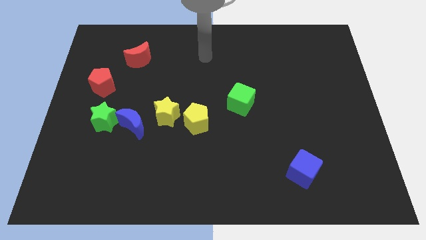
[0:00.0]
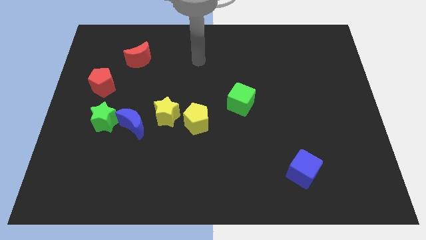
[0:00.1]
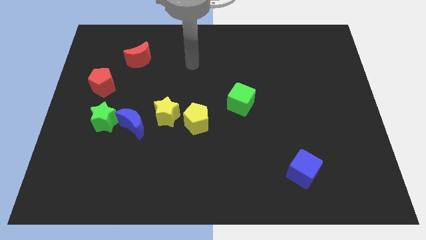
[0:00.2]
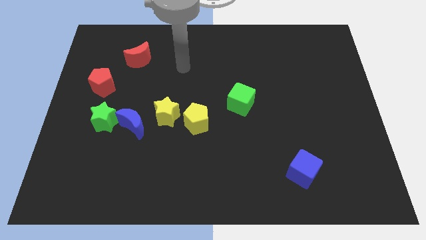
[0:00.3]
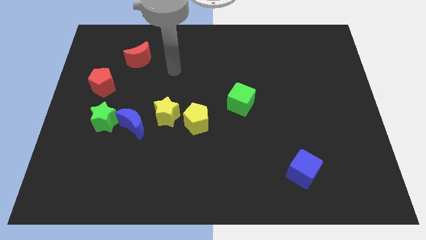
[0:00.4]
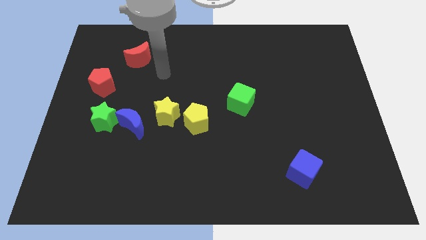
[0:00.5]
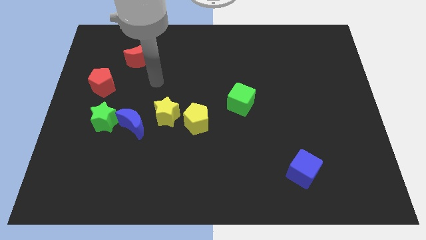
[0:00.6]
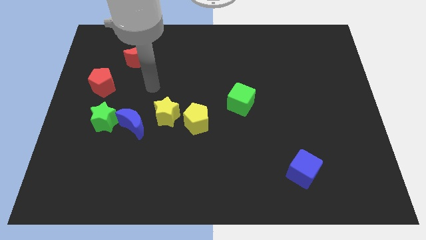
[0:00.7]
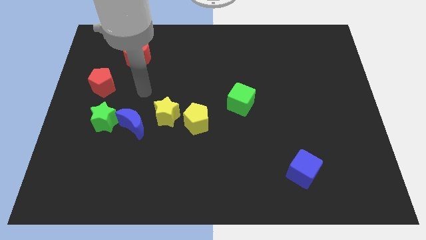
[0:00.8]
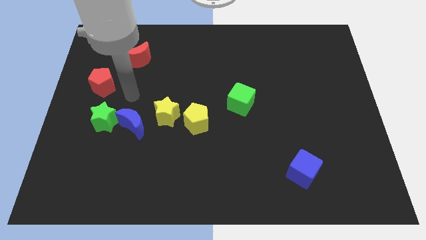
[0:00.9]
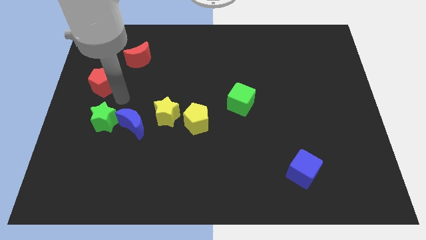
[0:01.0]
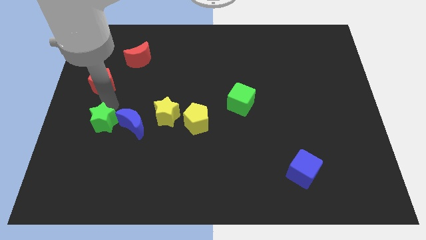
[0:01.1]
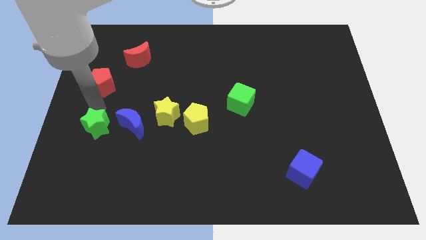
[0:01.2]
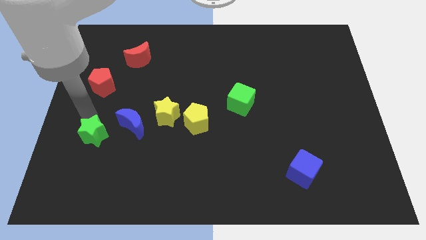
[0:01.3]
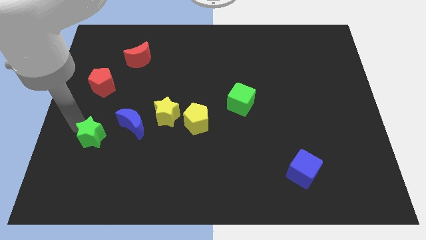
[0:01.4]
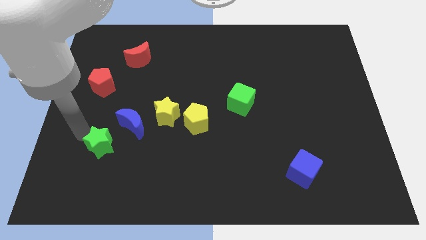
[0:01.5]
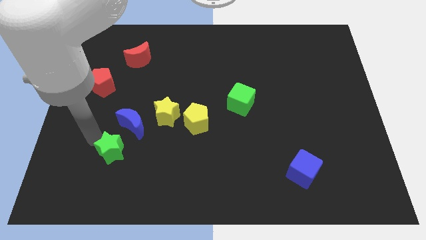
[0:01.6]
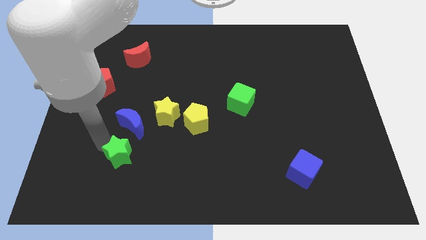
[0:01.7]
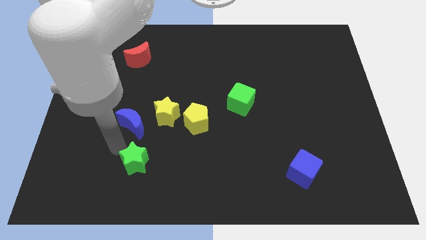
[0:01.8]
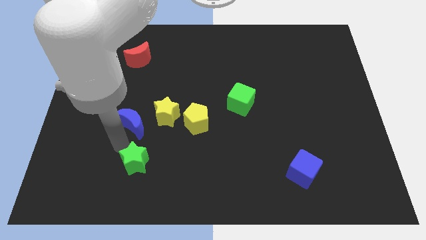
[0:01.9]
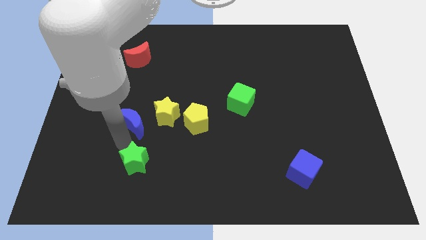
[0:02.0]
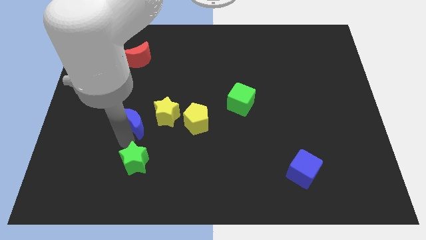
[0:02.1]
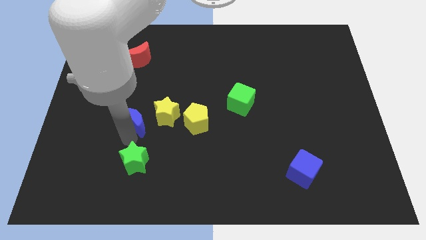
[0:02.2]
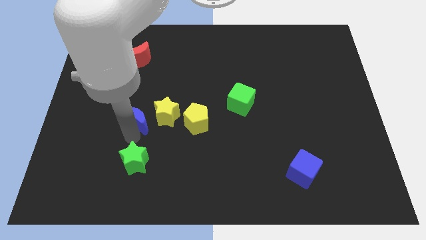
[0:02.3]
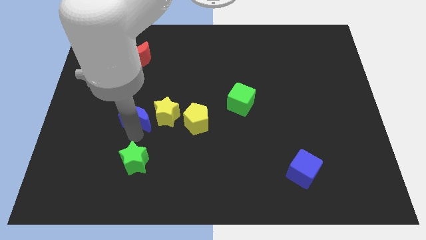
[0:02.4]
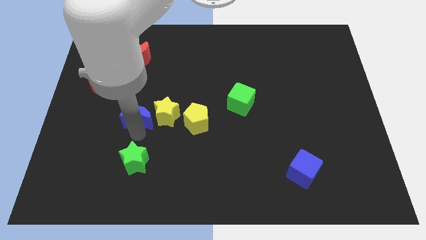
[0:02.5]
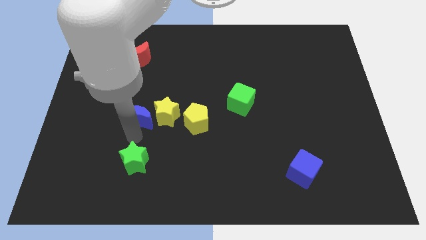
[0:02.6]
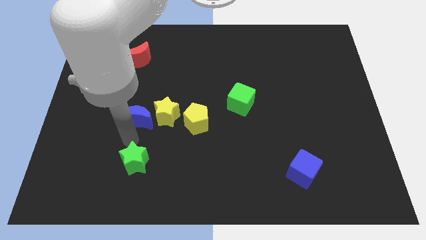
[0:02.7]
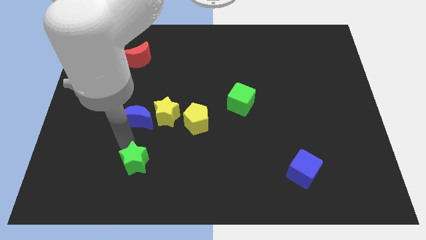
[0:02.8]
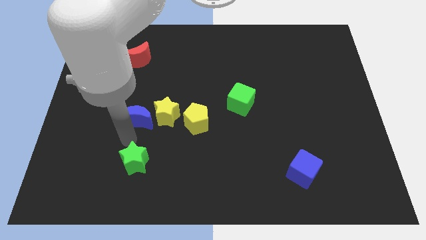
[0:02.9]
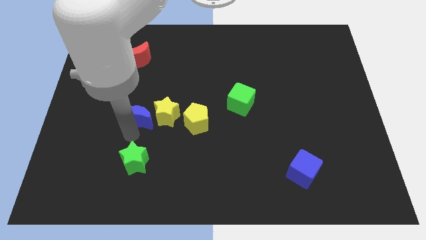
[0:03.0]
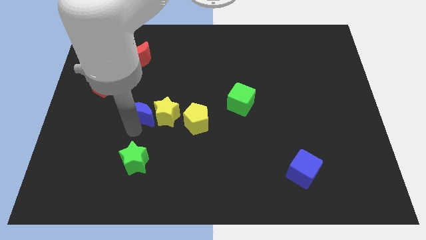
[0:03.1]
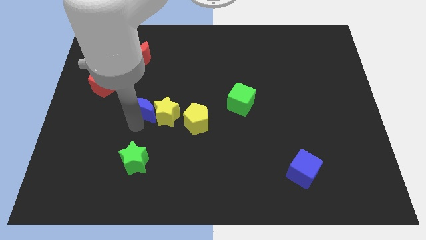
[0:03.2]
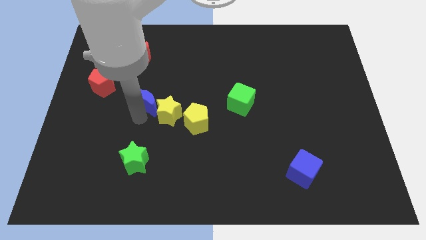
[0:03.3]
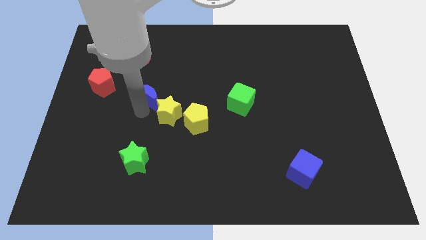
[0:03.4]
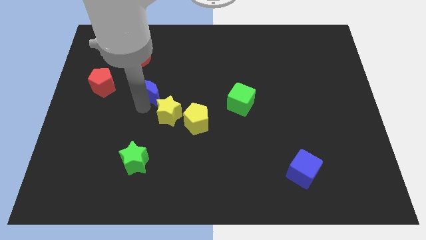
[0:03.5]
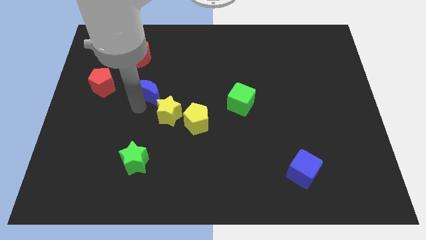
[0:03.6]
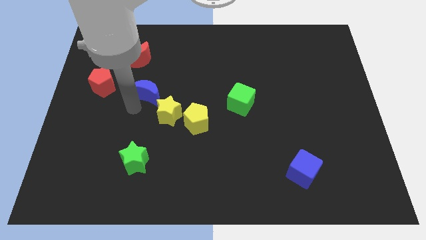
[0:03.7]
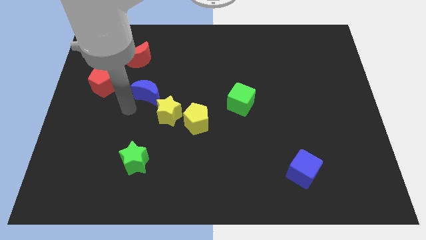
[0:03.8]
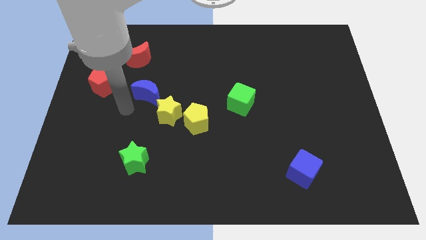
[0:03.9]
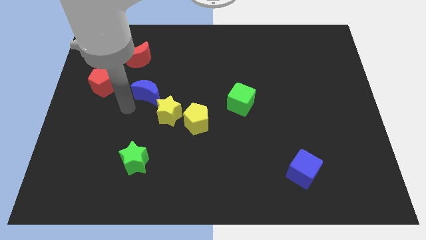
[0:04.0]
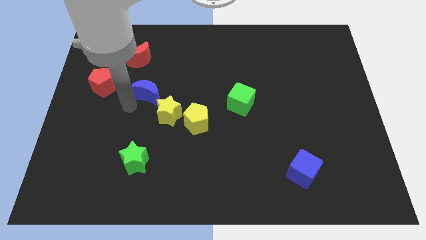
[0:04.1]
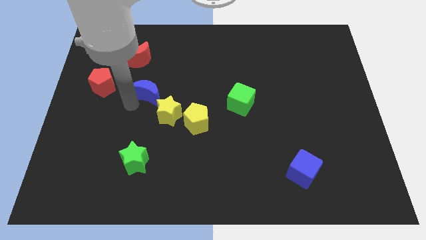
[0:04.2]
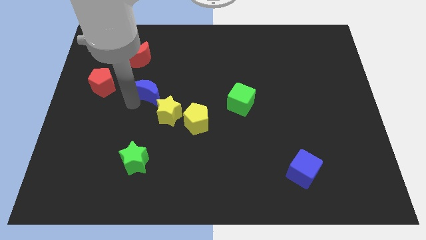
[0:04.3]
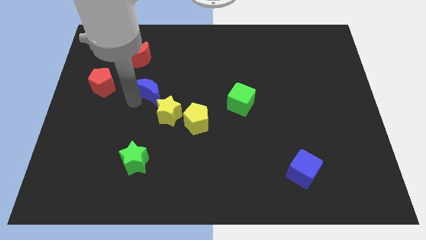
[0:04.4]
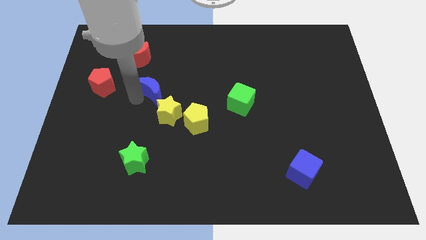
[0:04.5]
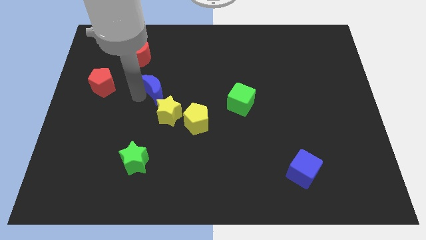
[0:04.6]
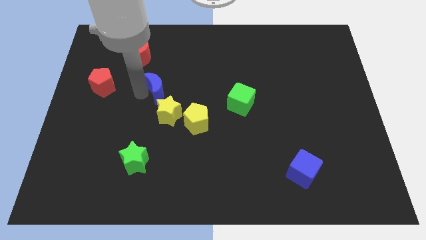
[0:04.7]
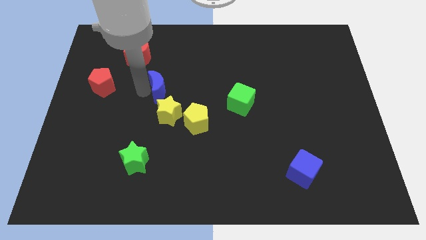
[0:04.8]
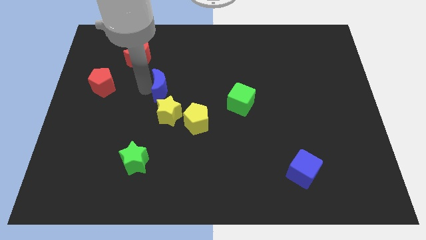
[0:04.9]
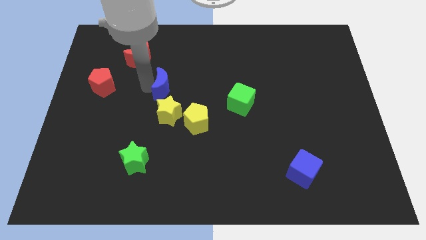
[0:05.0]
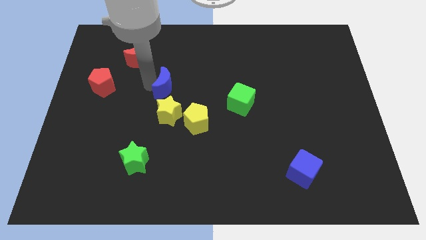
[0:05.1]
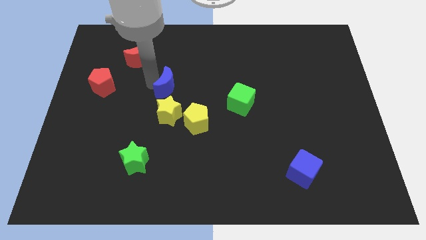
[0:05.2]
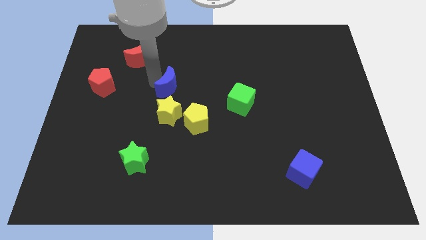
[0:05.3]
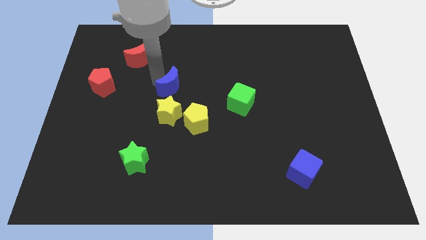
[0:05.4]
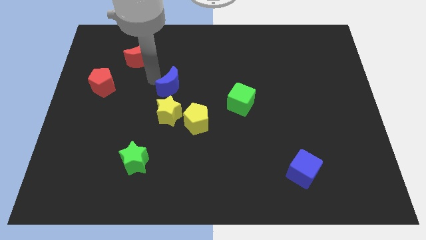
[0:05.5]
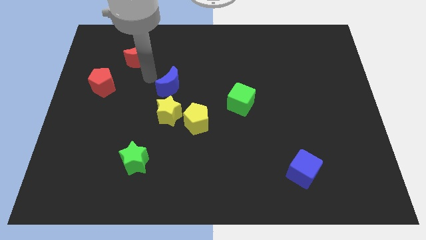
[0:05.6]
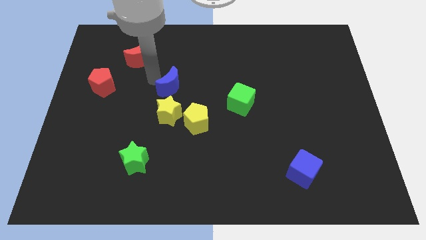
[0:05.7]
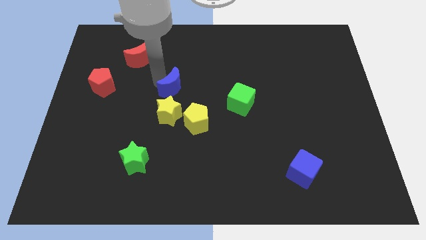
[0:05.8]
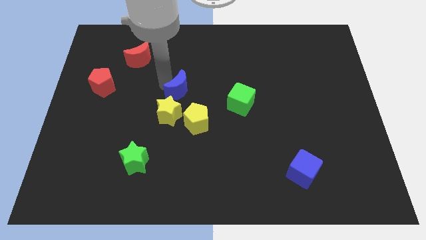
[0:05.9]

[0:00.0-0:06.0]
slide the blue moon to the top right of the yellow star

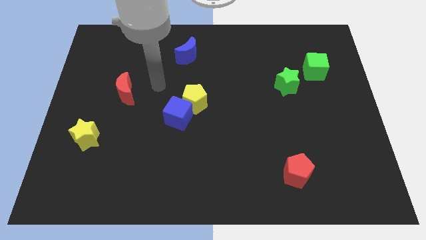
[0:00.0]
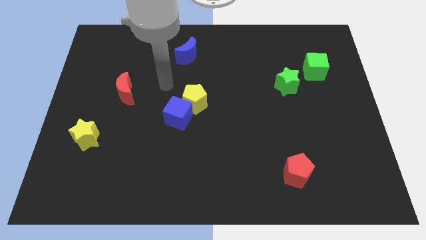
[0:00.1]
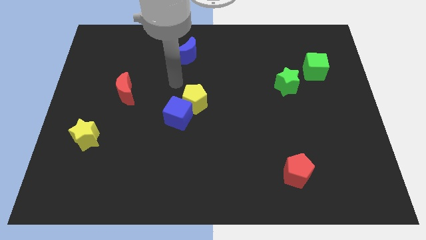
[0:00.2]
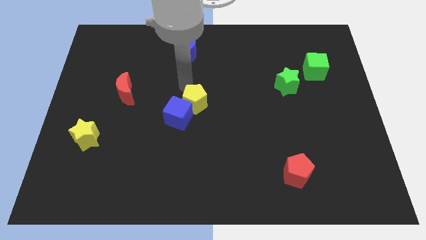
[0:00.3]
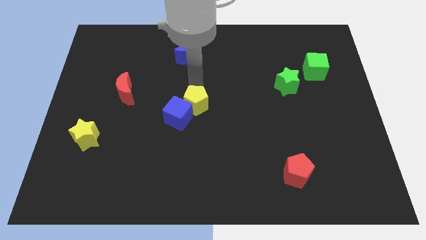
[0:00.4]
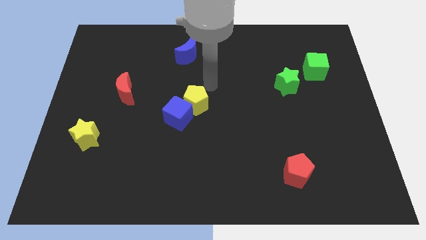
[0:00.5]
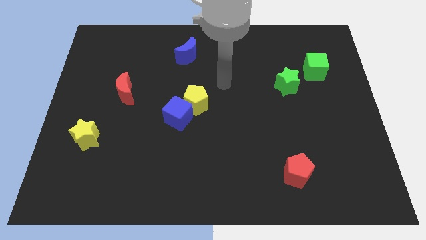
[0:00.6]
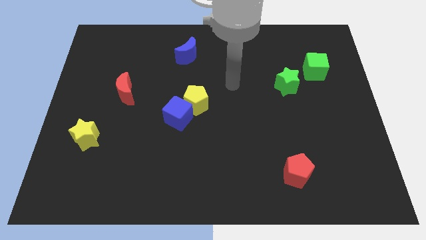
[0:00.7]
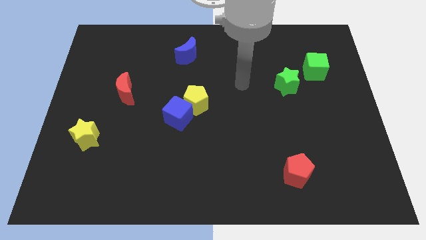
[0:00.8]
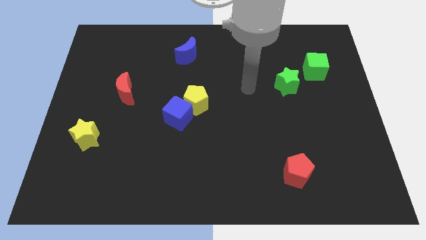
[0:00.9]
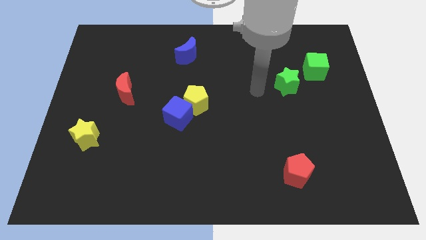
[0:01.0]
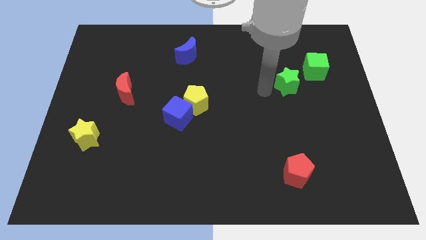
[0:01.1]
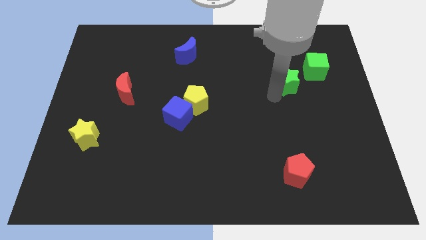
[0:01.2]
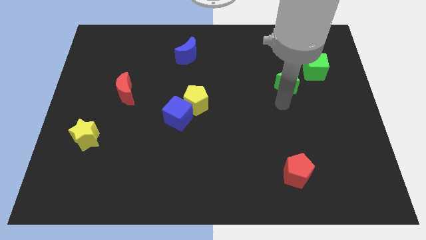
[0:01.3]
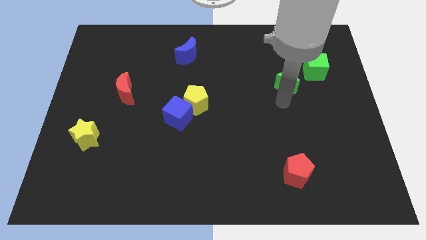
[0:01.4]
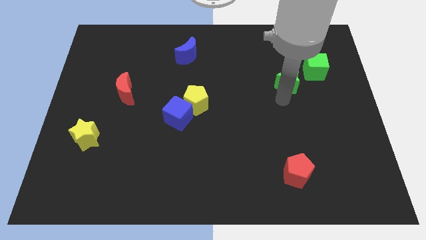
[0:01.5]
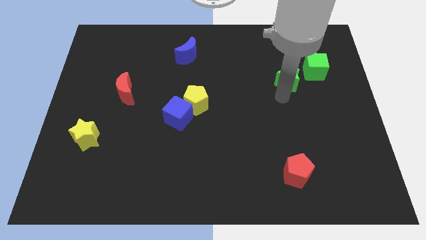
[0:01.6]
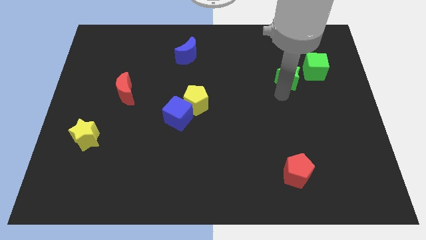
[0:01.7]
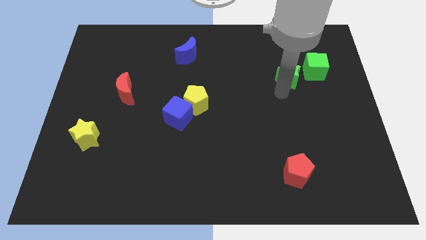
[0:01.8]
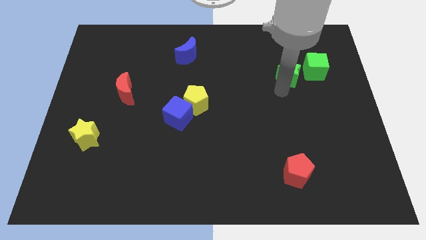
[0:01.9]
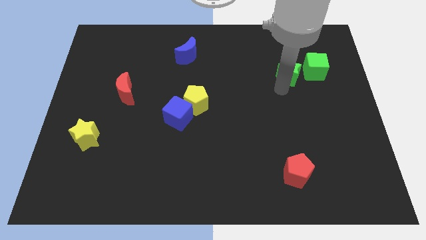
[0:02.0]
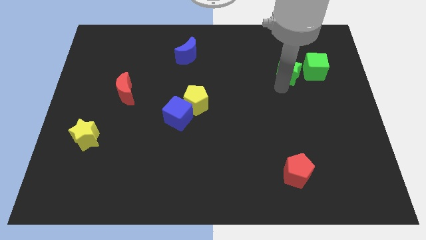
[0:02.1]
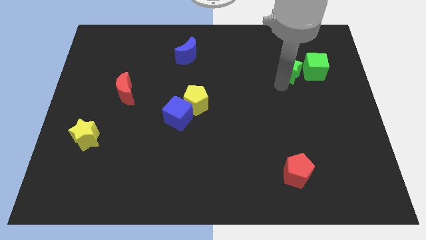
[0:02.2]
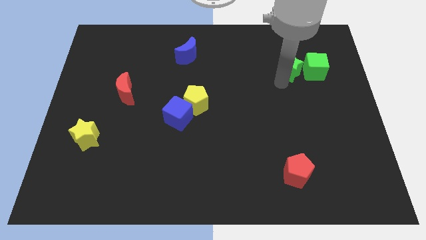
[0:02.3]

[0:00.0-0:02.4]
put the green star diagonally up and to the left of the green cube
